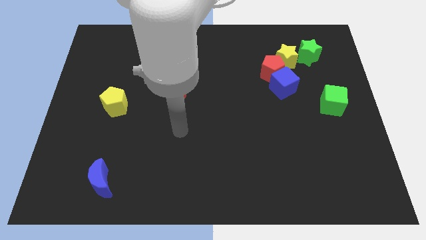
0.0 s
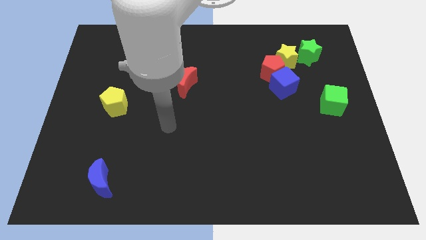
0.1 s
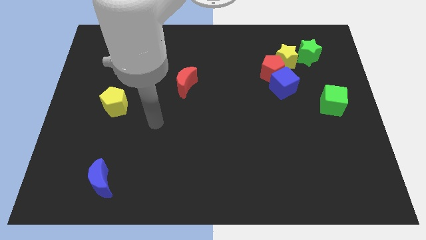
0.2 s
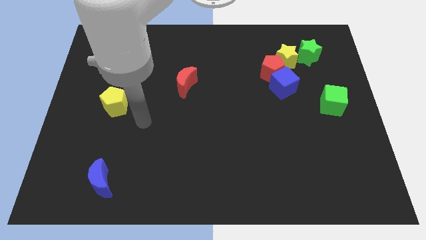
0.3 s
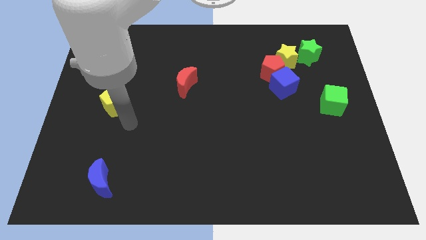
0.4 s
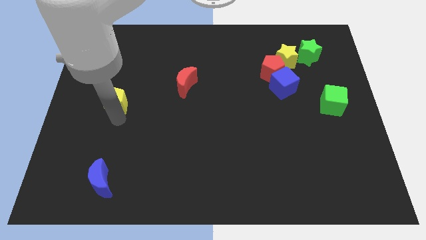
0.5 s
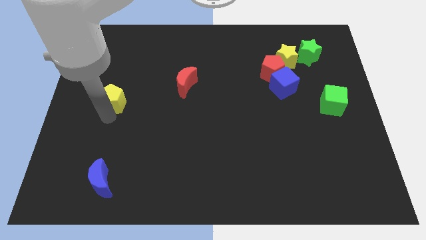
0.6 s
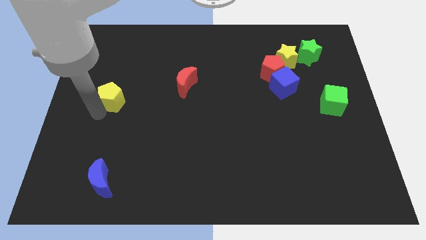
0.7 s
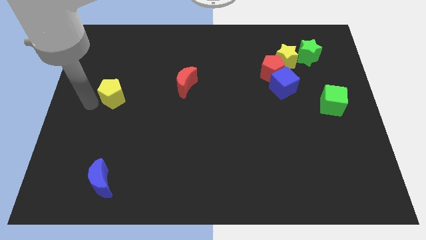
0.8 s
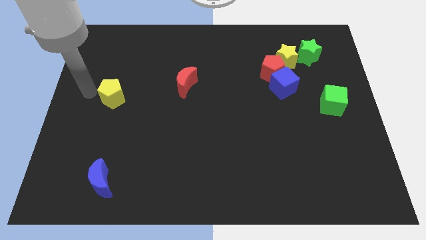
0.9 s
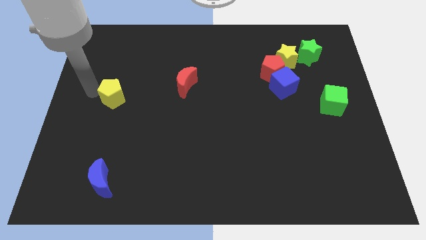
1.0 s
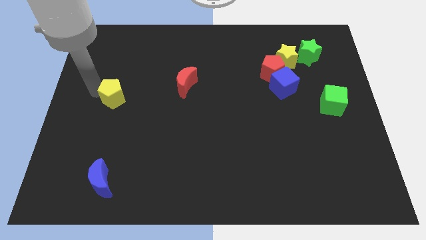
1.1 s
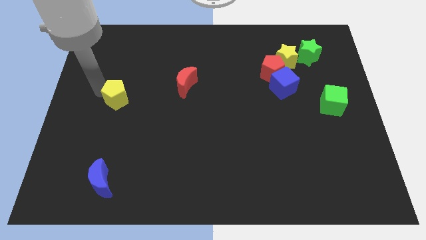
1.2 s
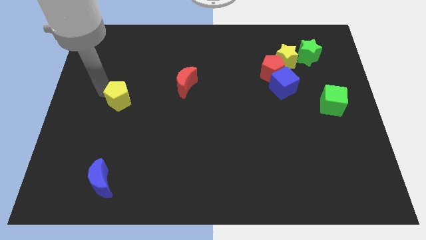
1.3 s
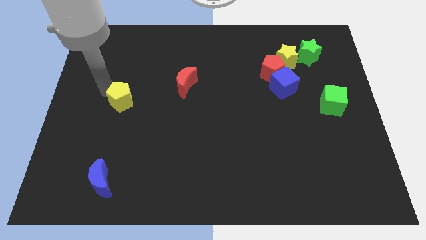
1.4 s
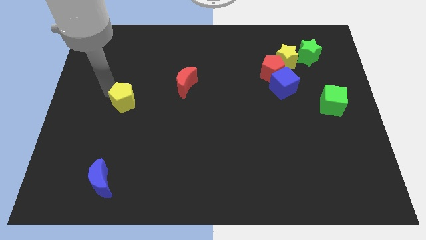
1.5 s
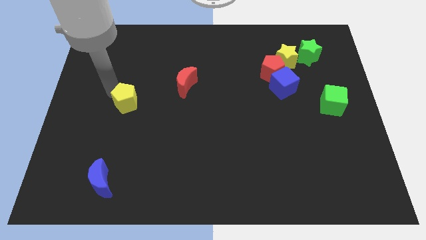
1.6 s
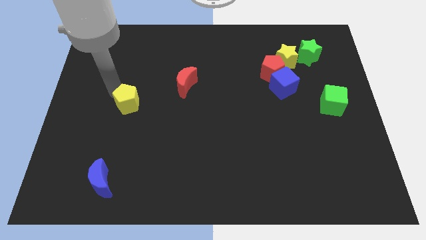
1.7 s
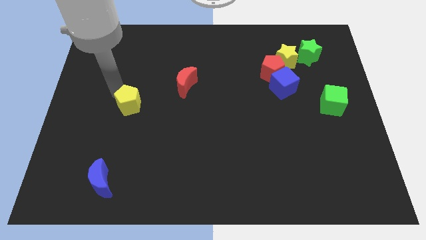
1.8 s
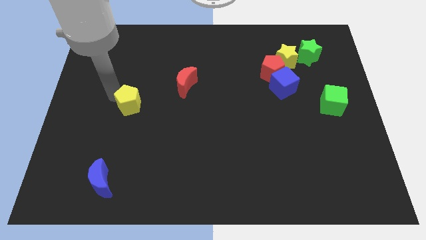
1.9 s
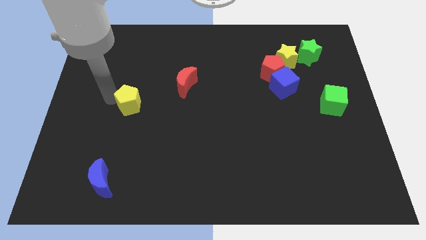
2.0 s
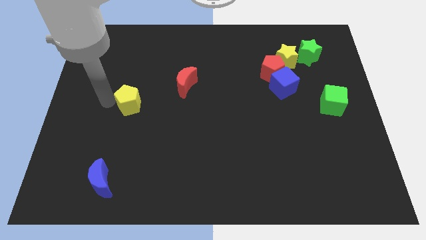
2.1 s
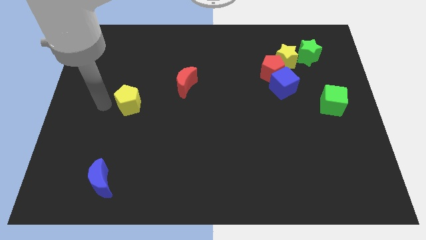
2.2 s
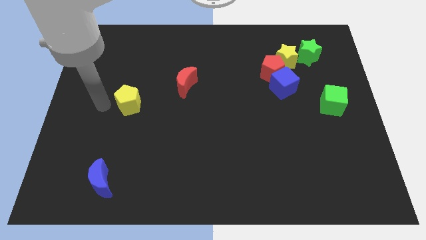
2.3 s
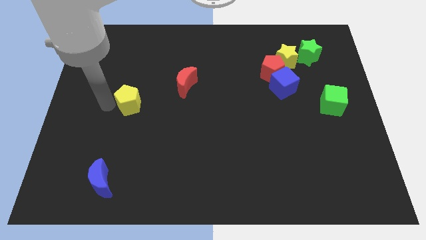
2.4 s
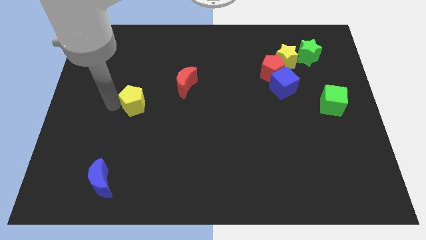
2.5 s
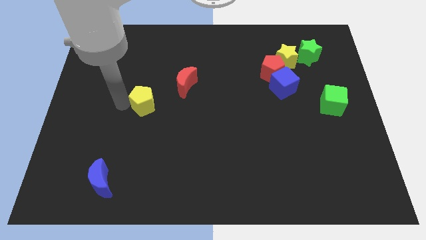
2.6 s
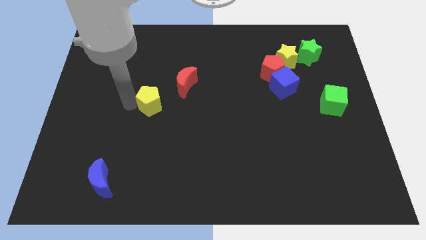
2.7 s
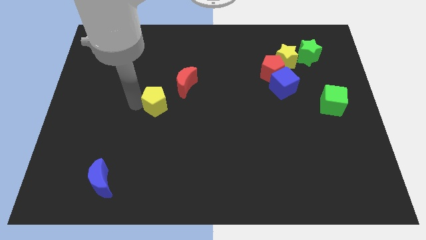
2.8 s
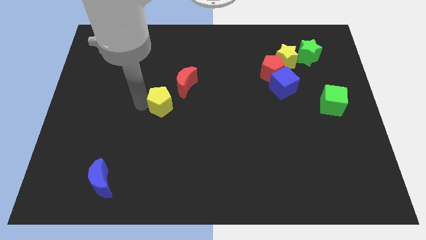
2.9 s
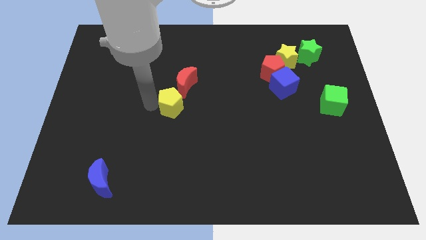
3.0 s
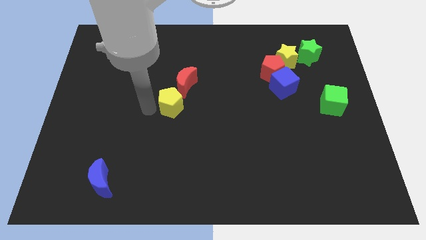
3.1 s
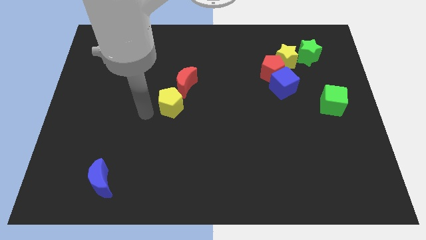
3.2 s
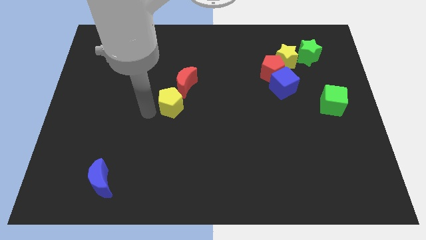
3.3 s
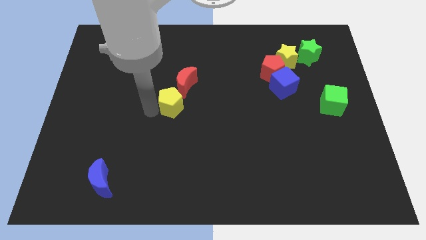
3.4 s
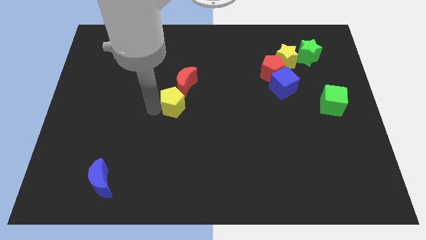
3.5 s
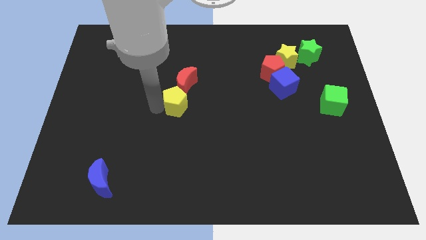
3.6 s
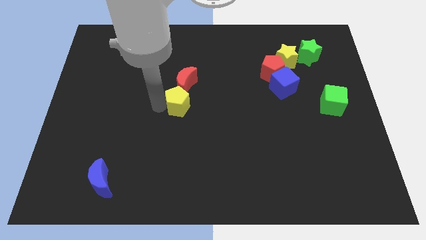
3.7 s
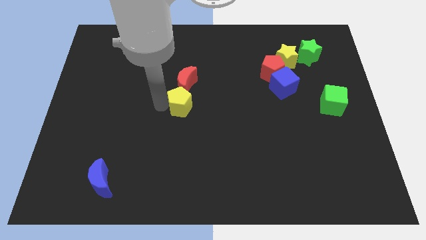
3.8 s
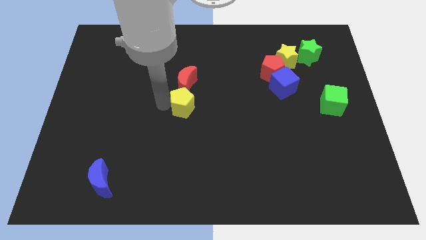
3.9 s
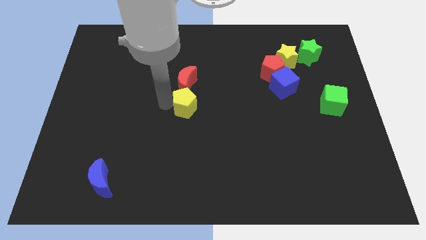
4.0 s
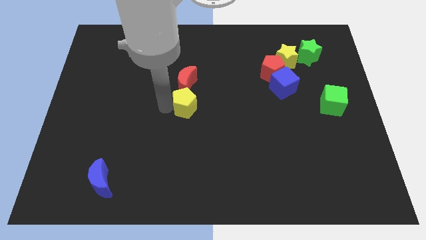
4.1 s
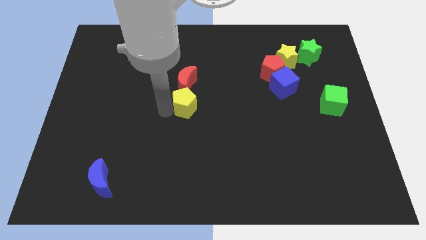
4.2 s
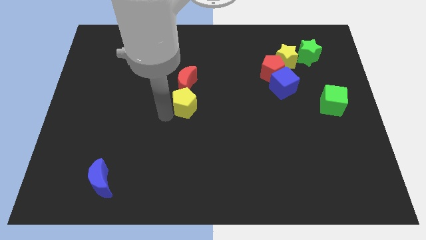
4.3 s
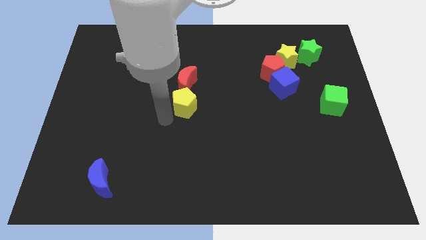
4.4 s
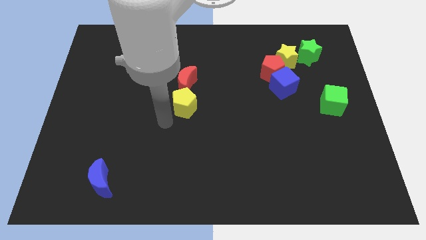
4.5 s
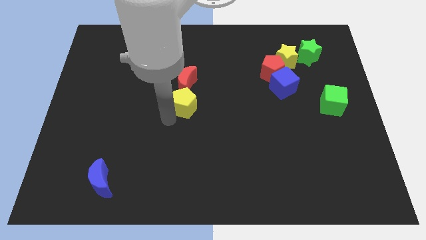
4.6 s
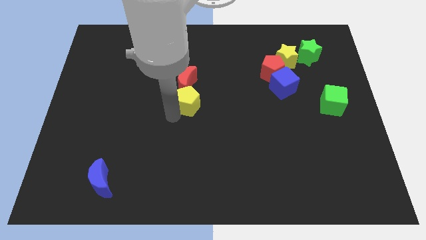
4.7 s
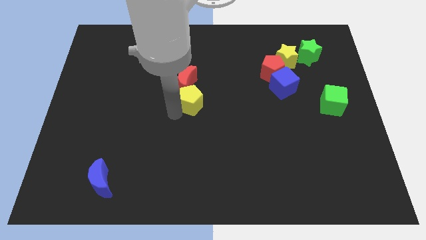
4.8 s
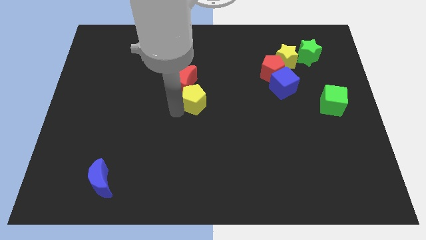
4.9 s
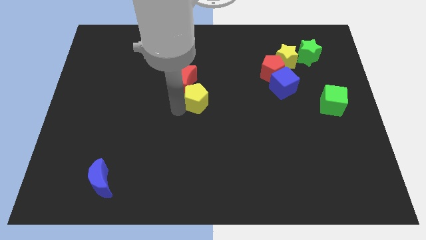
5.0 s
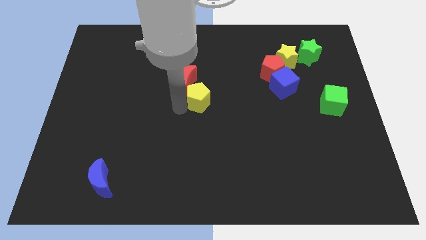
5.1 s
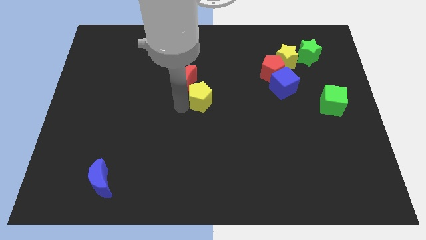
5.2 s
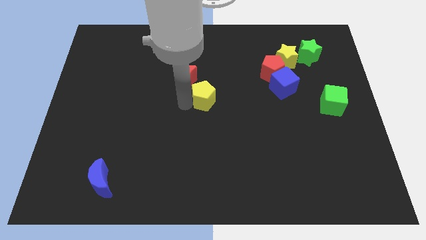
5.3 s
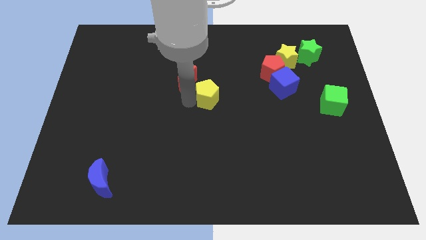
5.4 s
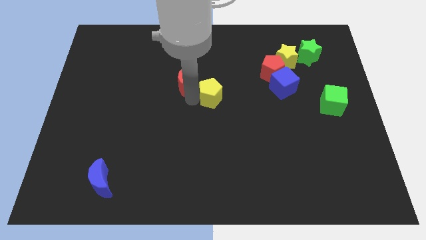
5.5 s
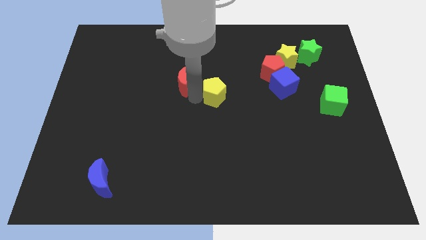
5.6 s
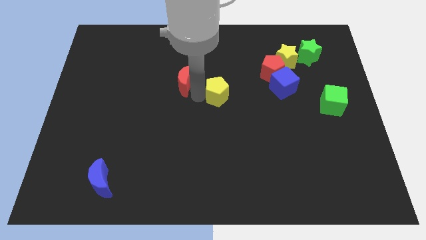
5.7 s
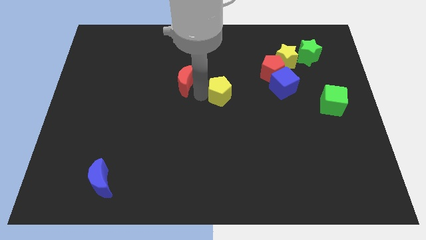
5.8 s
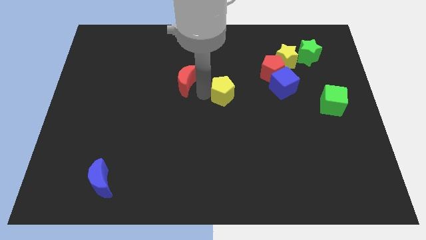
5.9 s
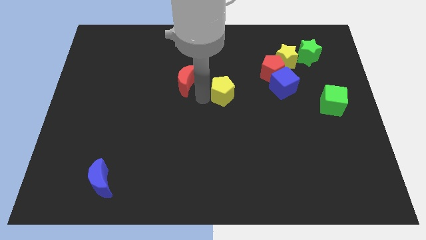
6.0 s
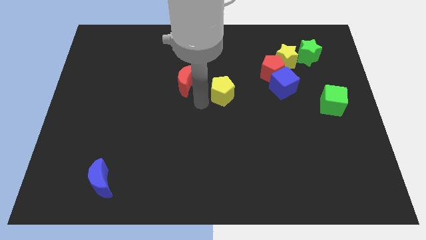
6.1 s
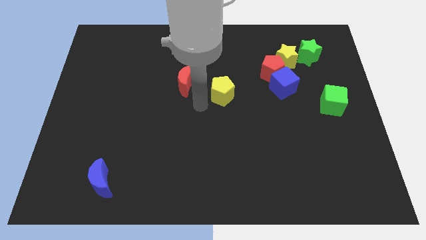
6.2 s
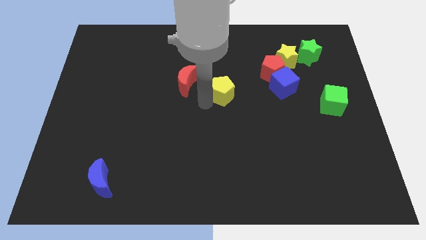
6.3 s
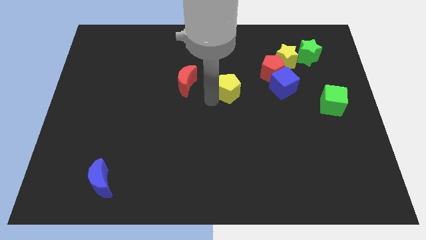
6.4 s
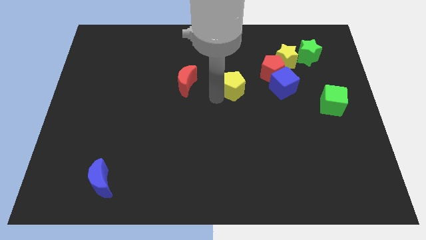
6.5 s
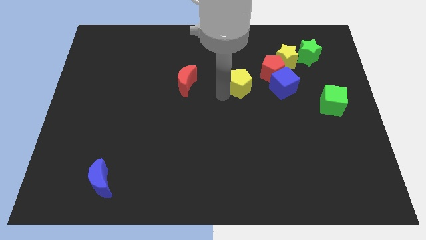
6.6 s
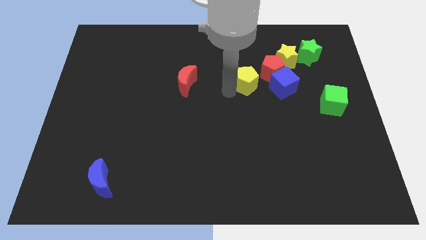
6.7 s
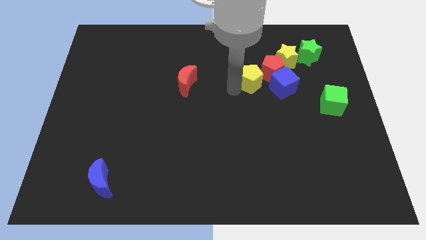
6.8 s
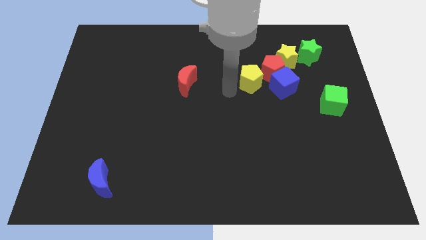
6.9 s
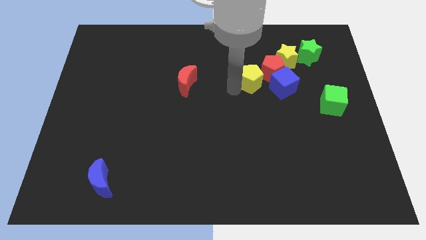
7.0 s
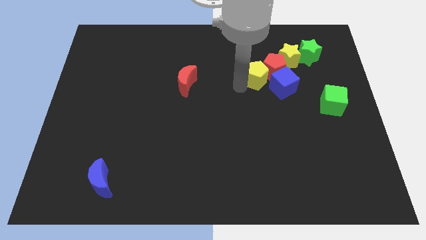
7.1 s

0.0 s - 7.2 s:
move the yellow pentagon close to the red pentagon
